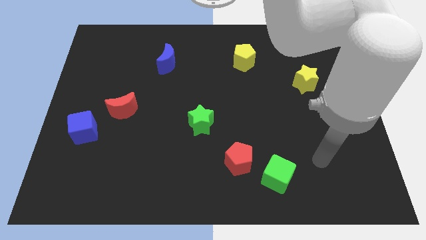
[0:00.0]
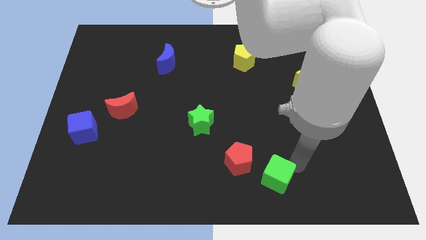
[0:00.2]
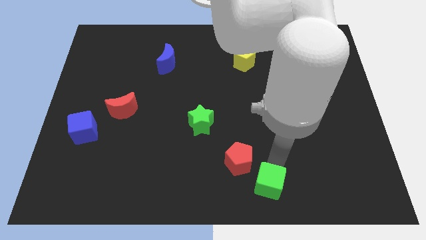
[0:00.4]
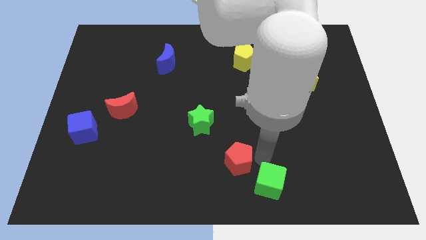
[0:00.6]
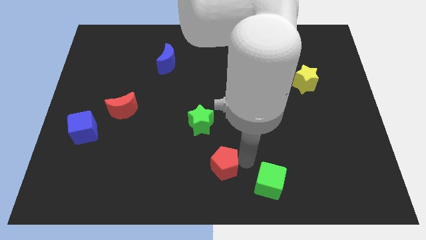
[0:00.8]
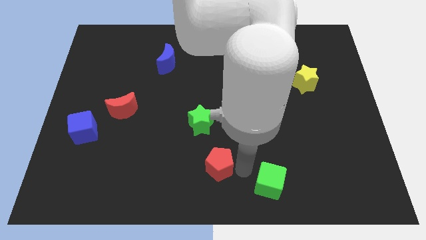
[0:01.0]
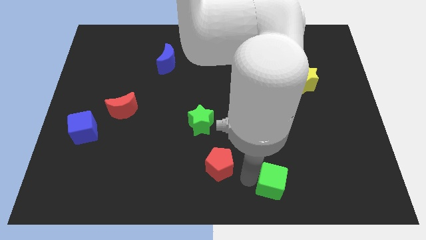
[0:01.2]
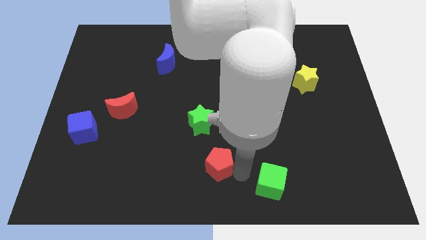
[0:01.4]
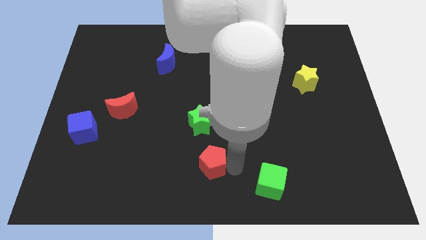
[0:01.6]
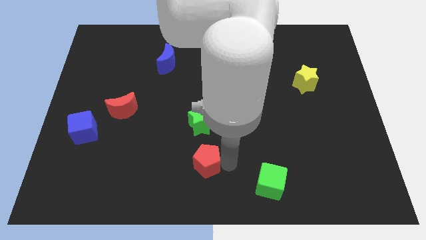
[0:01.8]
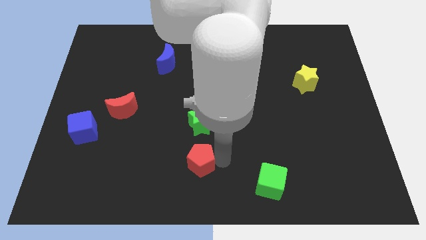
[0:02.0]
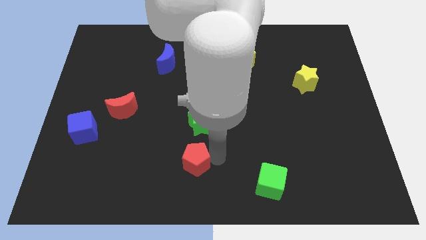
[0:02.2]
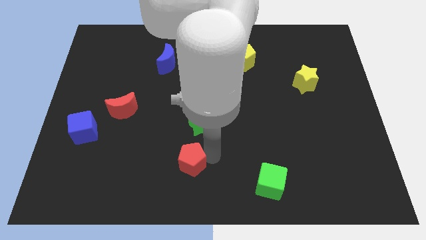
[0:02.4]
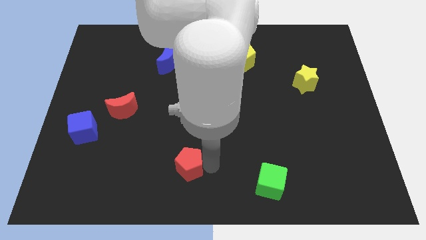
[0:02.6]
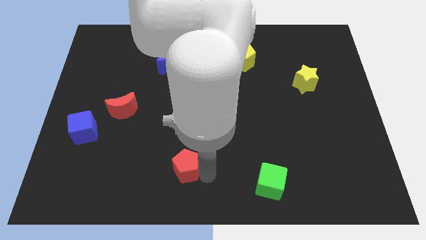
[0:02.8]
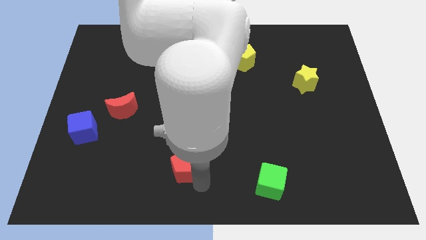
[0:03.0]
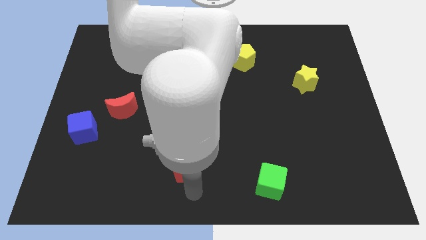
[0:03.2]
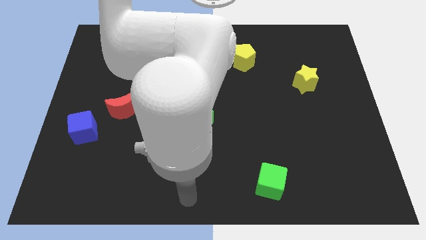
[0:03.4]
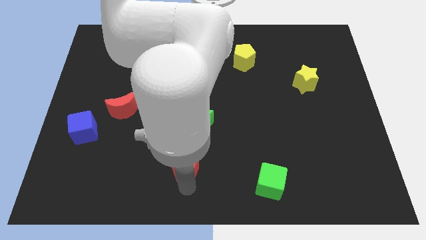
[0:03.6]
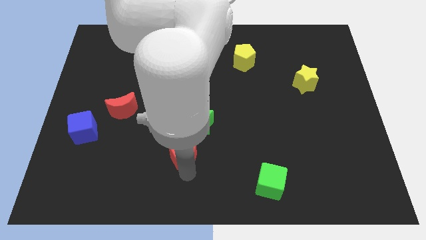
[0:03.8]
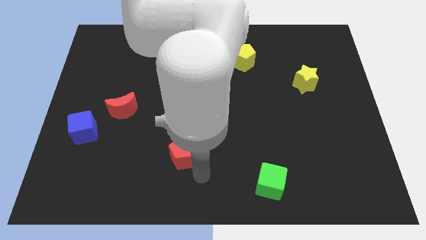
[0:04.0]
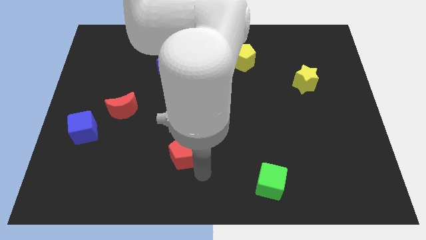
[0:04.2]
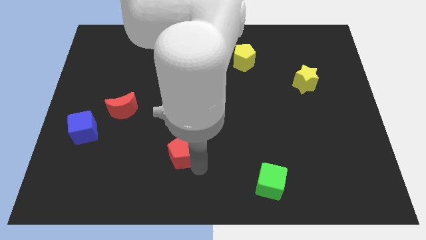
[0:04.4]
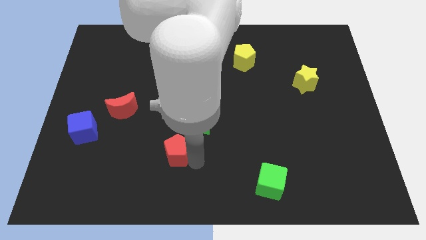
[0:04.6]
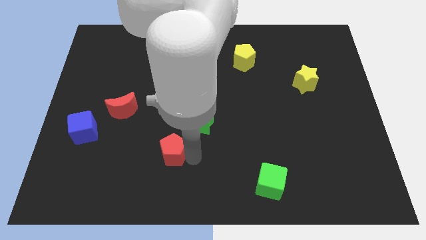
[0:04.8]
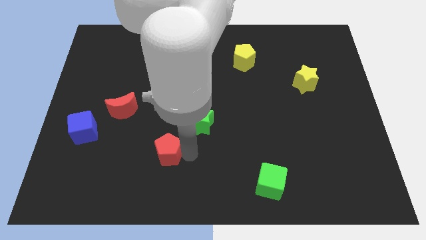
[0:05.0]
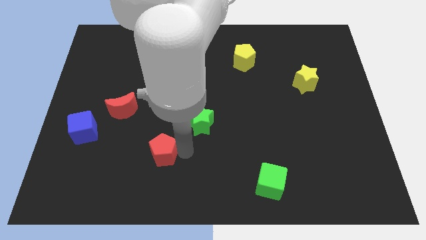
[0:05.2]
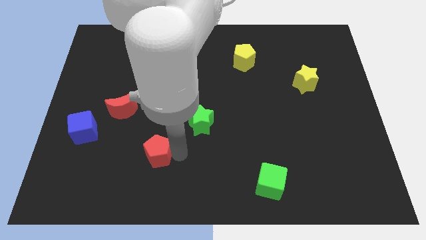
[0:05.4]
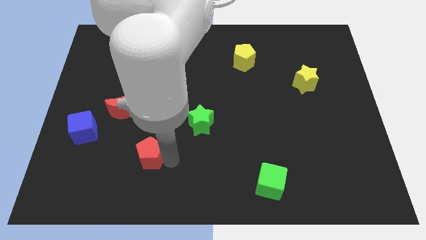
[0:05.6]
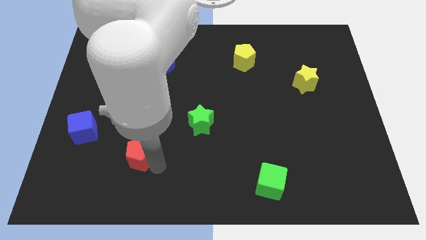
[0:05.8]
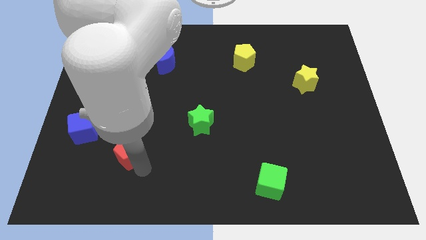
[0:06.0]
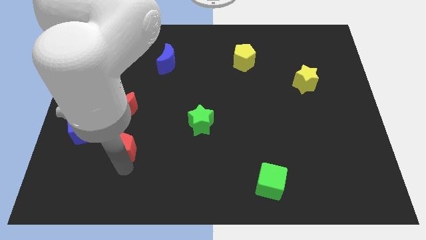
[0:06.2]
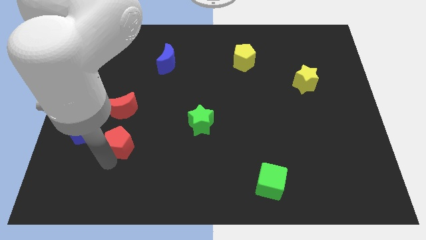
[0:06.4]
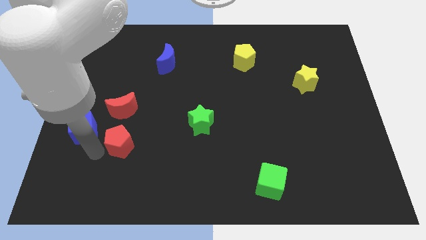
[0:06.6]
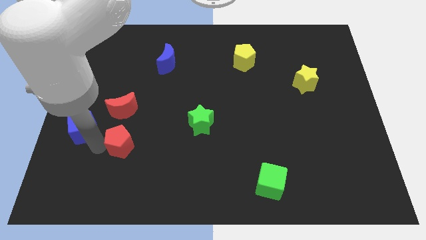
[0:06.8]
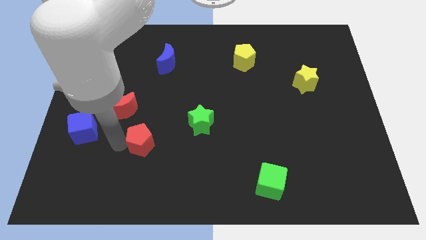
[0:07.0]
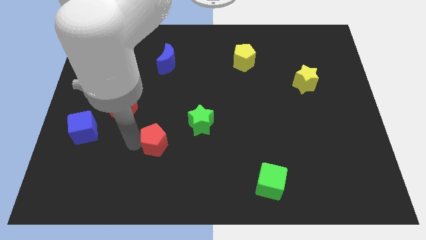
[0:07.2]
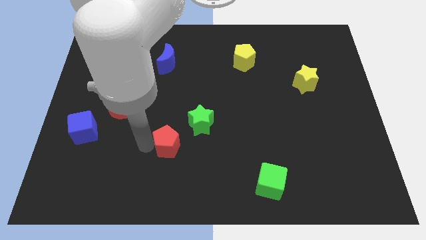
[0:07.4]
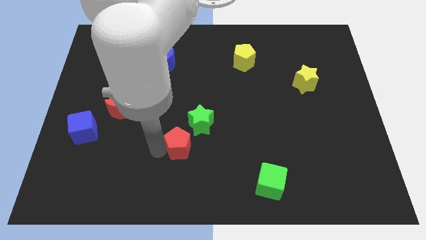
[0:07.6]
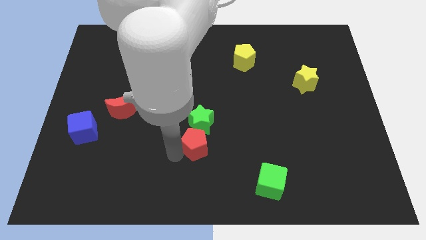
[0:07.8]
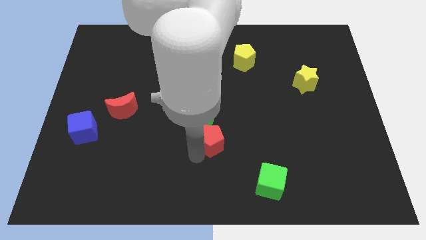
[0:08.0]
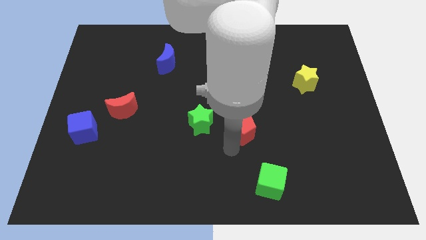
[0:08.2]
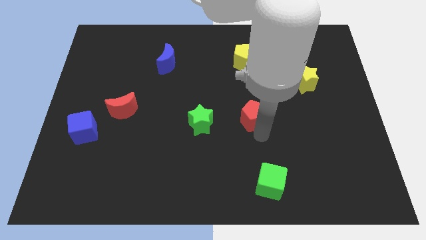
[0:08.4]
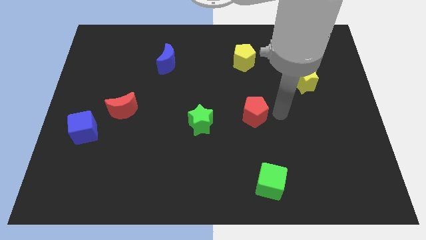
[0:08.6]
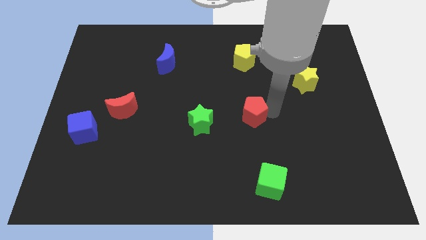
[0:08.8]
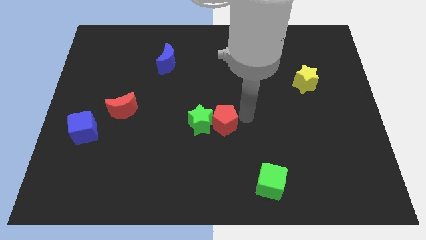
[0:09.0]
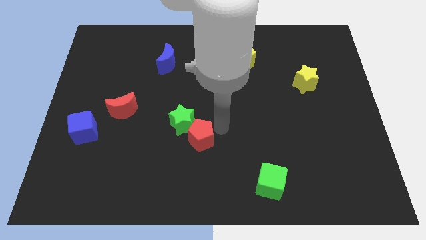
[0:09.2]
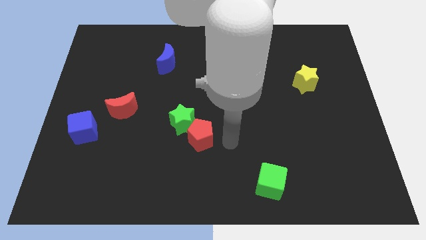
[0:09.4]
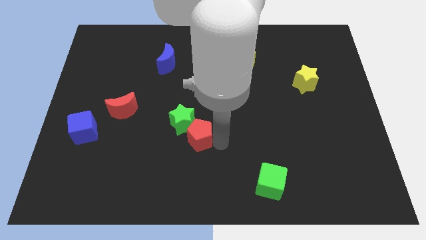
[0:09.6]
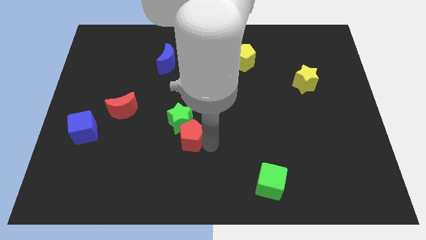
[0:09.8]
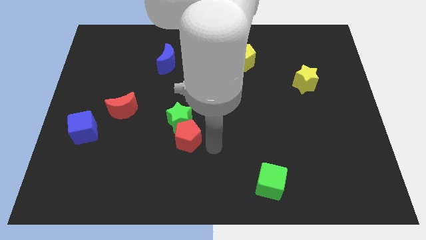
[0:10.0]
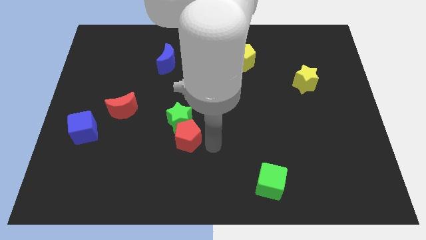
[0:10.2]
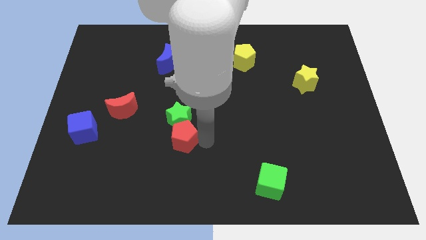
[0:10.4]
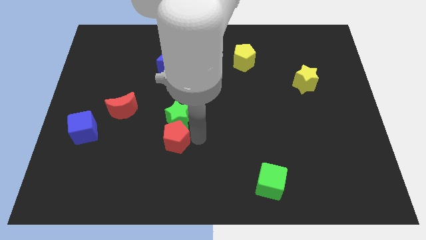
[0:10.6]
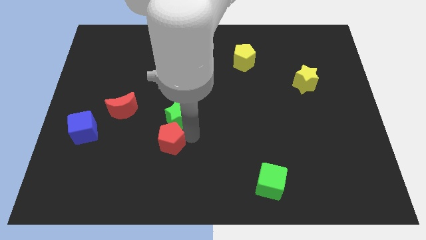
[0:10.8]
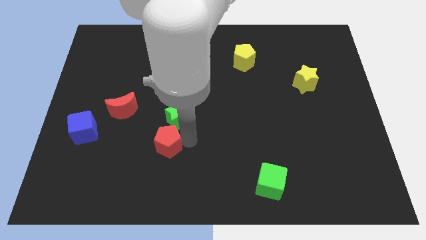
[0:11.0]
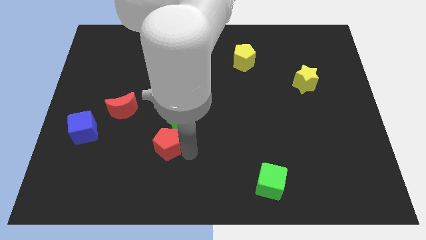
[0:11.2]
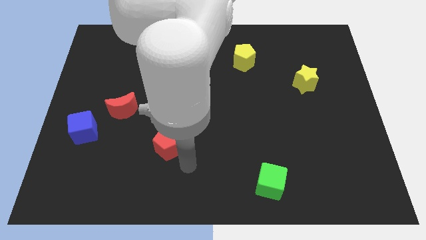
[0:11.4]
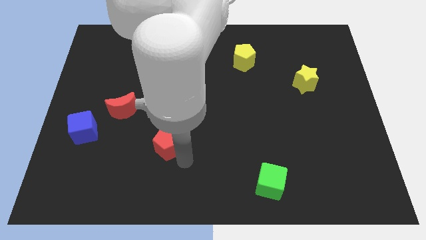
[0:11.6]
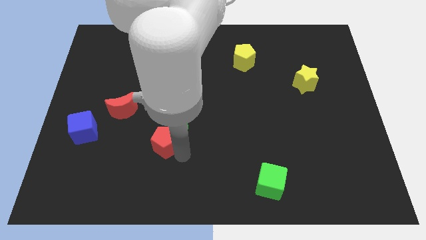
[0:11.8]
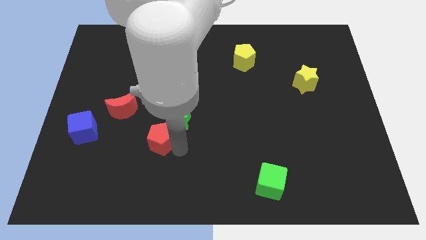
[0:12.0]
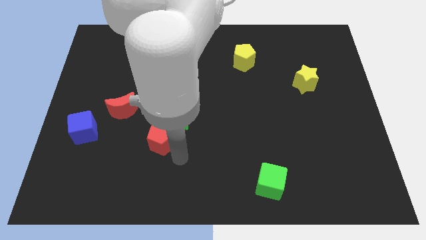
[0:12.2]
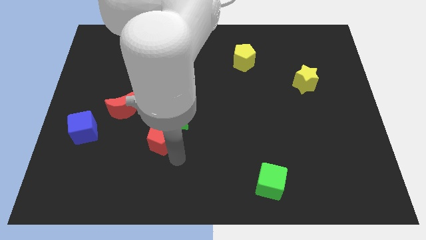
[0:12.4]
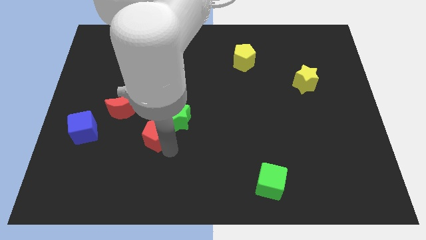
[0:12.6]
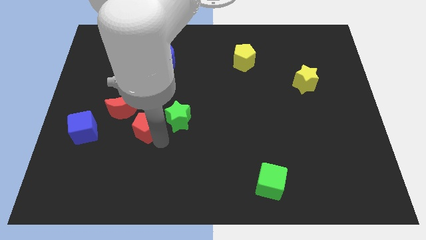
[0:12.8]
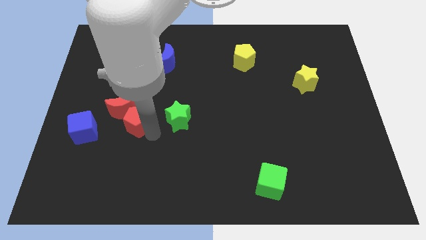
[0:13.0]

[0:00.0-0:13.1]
put the red pentagon next to the red moon

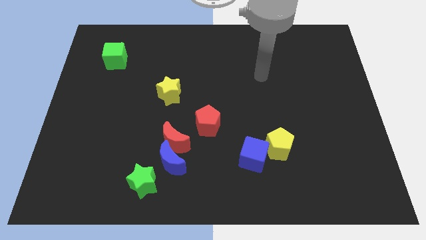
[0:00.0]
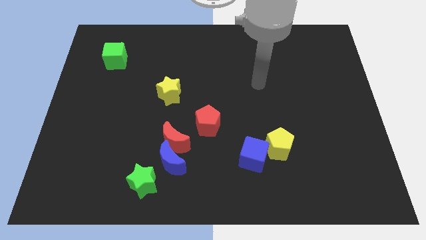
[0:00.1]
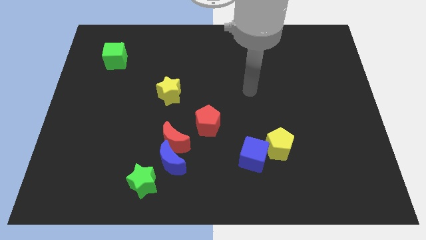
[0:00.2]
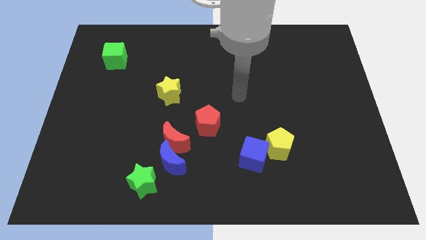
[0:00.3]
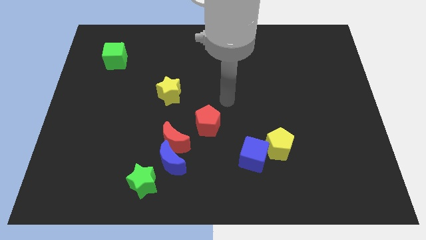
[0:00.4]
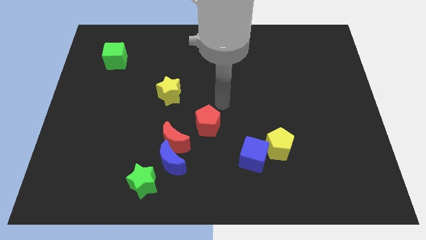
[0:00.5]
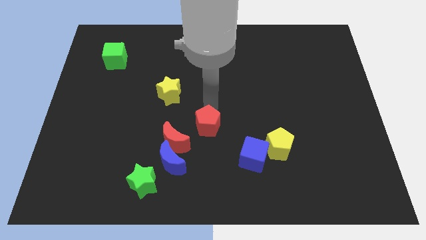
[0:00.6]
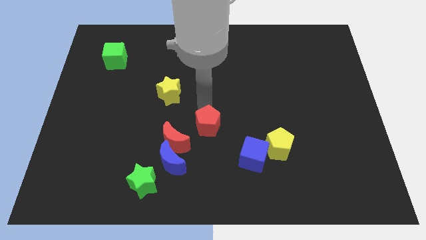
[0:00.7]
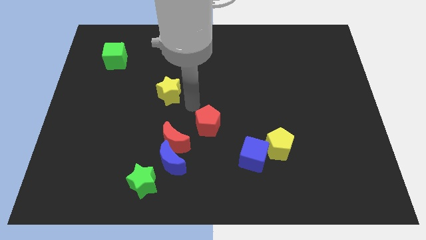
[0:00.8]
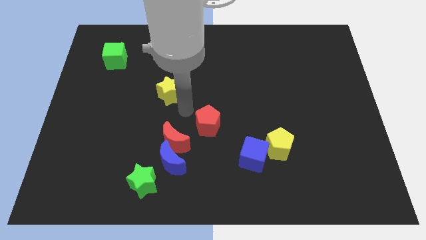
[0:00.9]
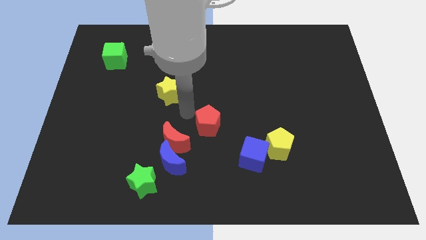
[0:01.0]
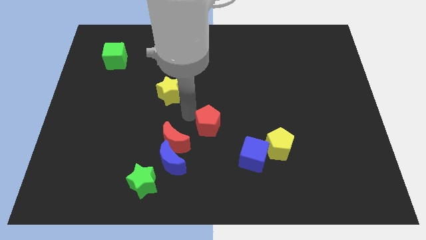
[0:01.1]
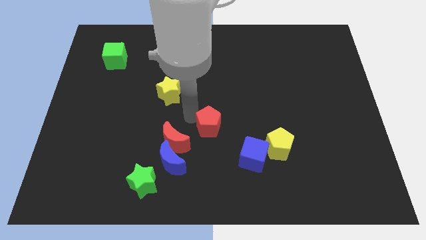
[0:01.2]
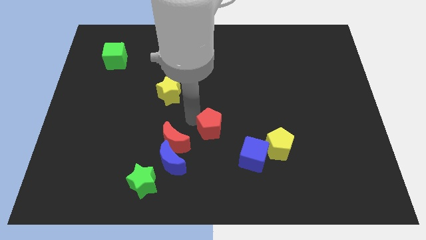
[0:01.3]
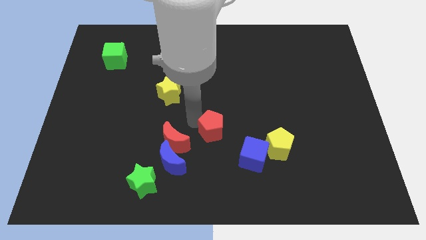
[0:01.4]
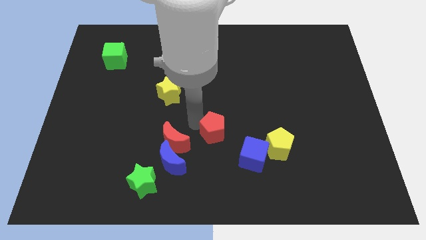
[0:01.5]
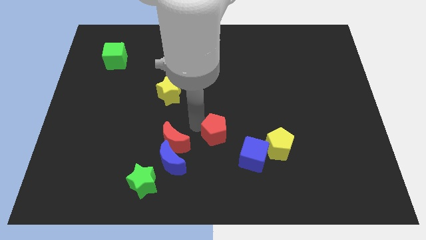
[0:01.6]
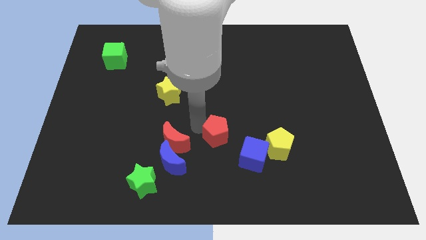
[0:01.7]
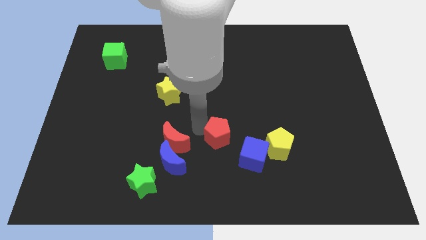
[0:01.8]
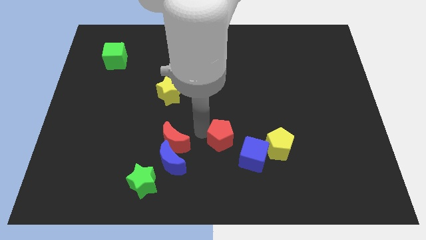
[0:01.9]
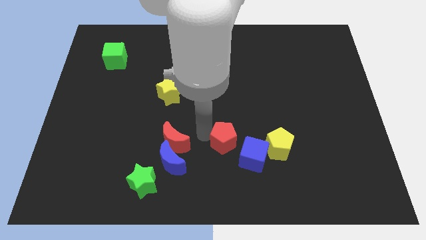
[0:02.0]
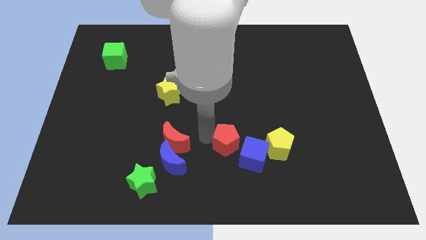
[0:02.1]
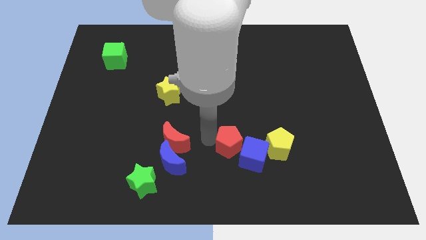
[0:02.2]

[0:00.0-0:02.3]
put the red pentagon towards the blue cube
